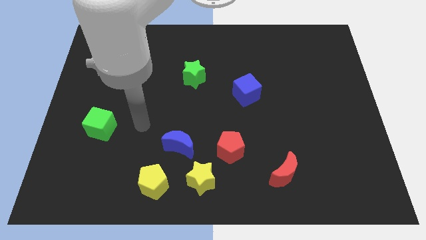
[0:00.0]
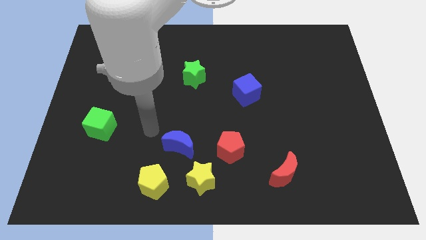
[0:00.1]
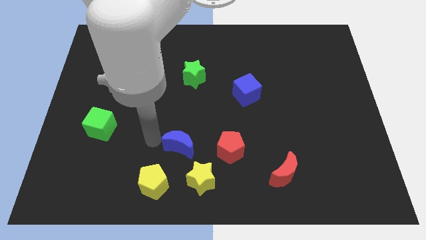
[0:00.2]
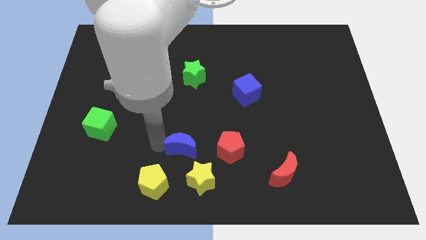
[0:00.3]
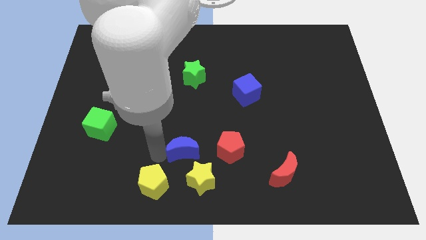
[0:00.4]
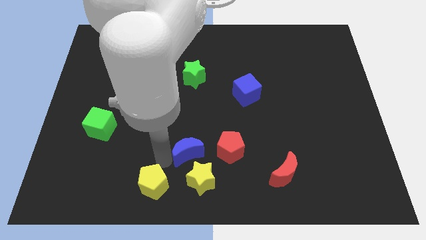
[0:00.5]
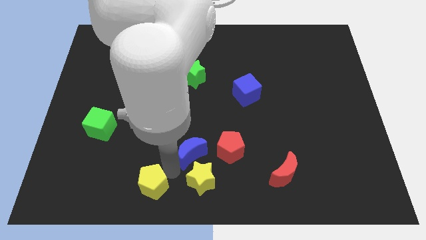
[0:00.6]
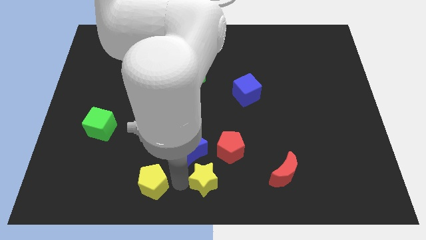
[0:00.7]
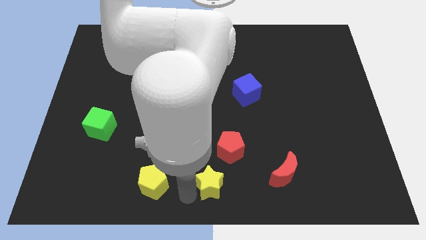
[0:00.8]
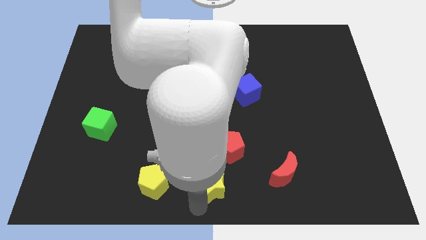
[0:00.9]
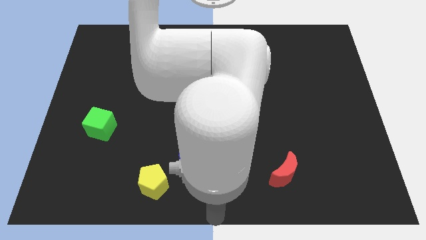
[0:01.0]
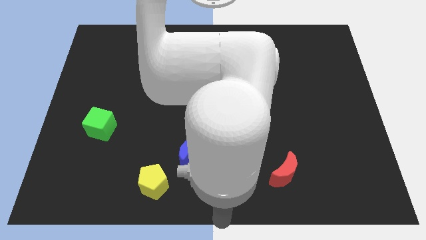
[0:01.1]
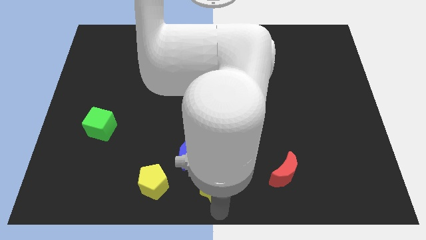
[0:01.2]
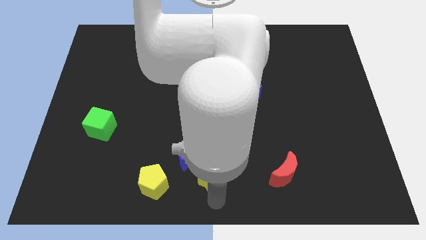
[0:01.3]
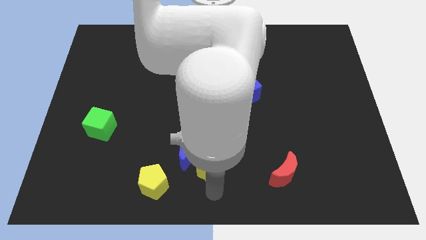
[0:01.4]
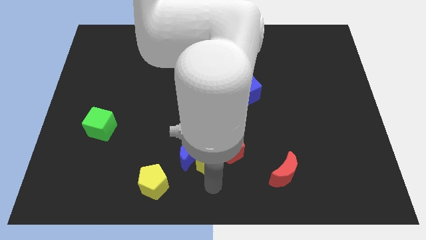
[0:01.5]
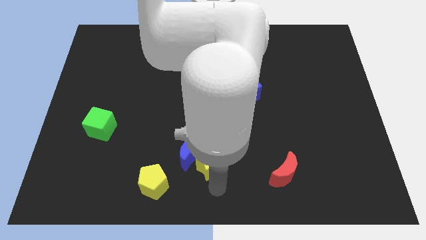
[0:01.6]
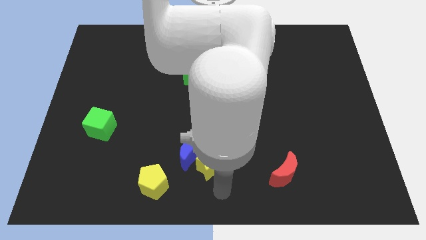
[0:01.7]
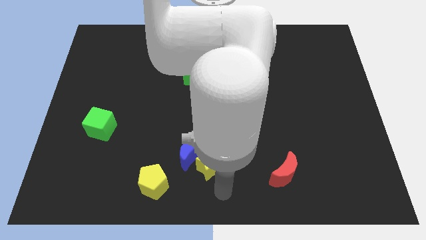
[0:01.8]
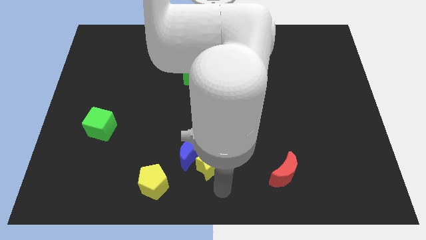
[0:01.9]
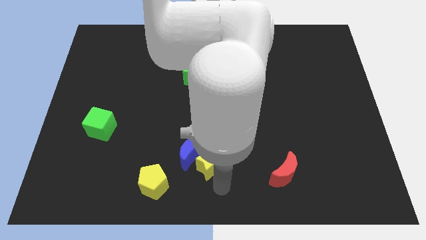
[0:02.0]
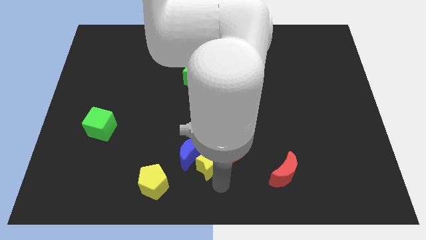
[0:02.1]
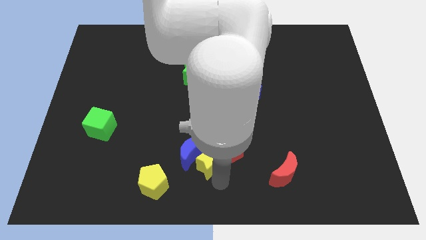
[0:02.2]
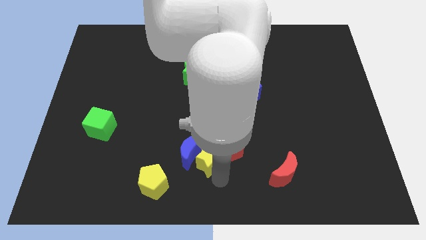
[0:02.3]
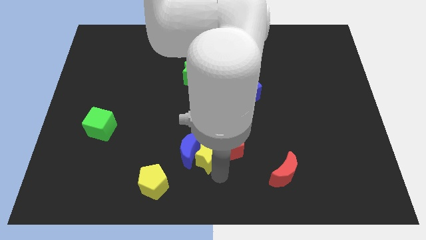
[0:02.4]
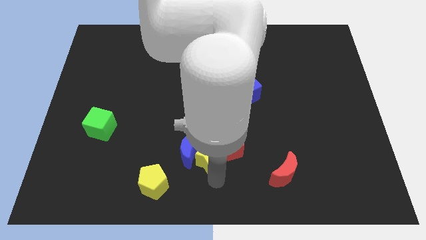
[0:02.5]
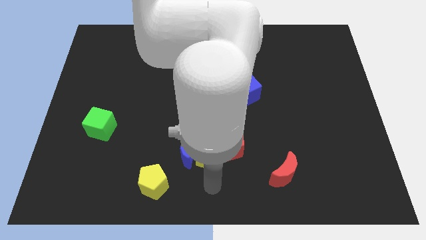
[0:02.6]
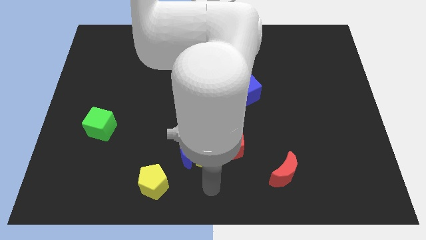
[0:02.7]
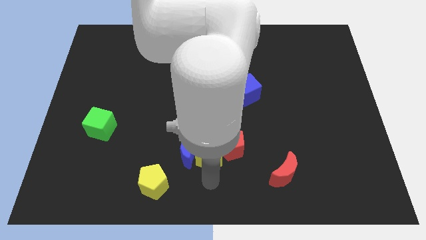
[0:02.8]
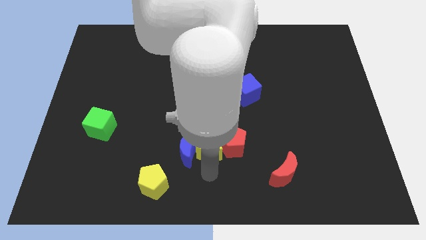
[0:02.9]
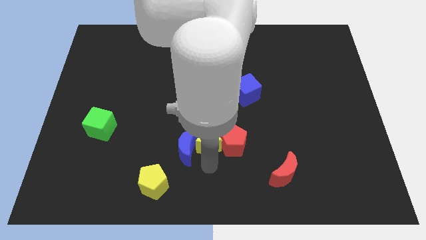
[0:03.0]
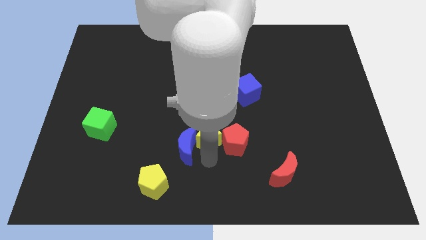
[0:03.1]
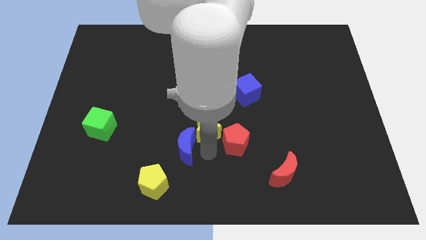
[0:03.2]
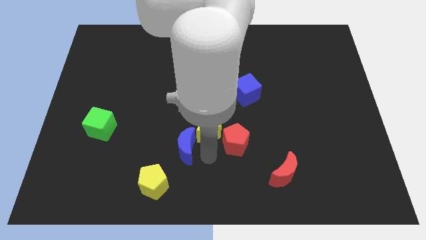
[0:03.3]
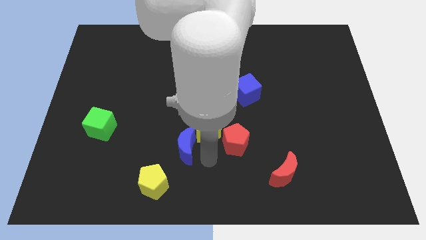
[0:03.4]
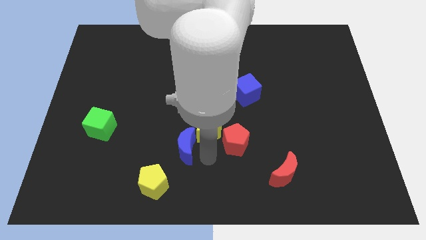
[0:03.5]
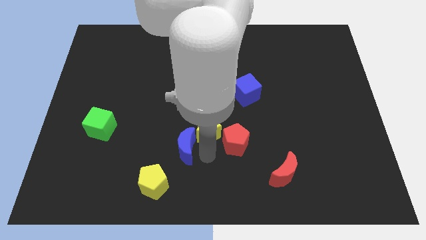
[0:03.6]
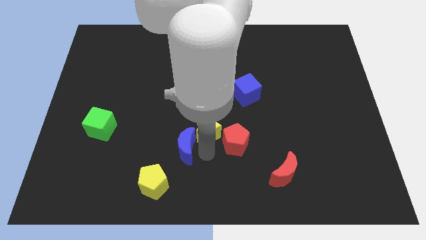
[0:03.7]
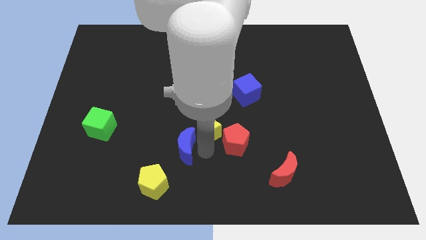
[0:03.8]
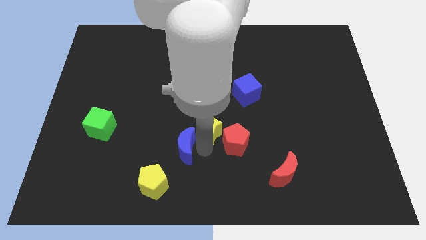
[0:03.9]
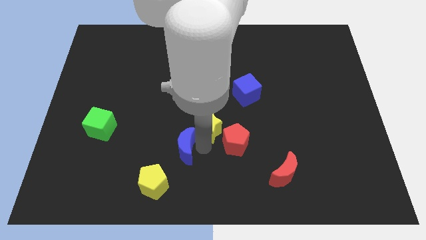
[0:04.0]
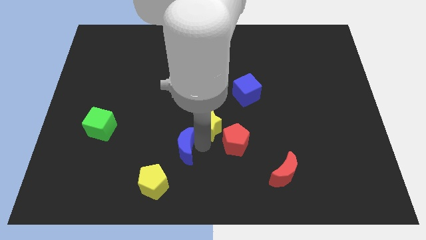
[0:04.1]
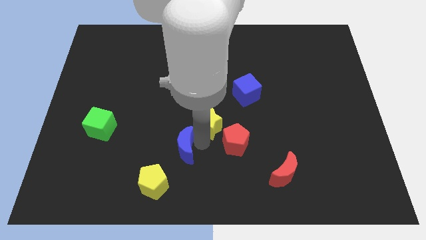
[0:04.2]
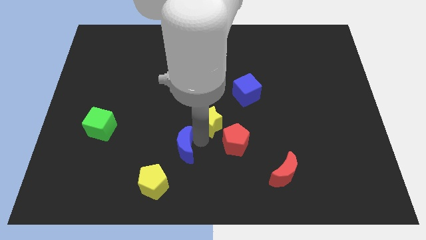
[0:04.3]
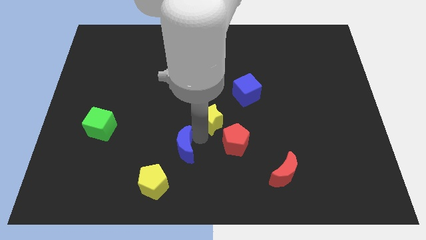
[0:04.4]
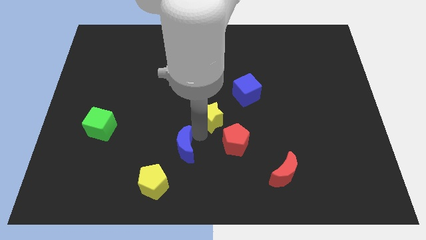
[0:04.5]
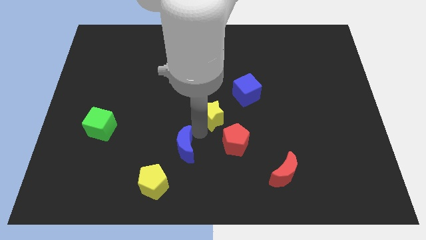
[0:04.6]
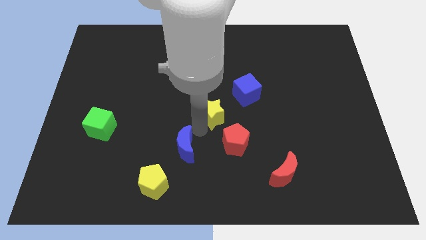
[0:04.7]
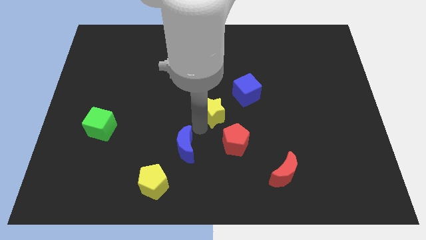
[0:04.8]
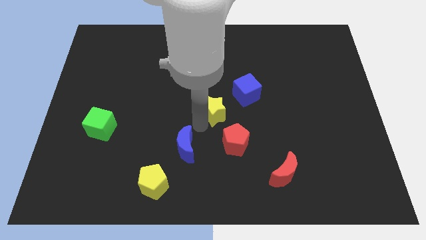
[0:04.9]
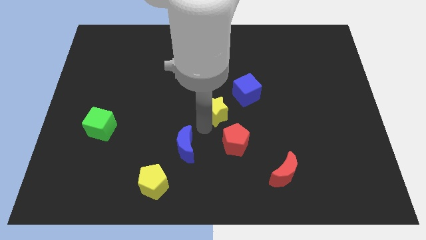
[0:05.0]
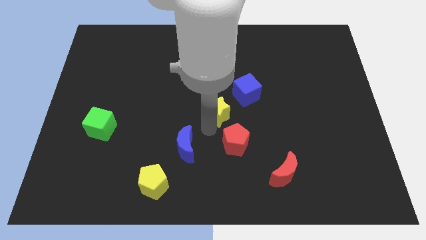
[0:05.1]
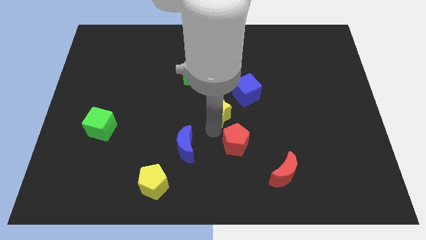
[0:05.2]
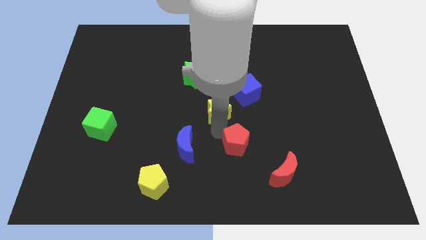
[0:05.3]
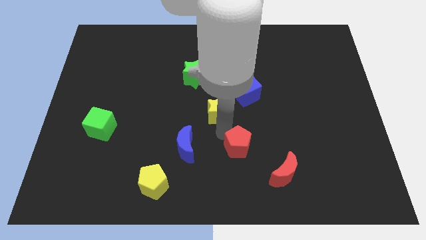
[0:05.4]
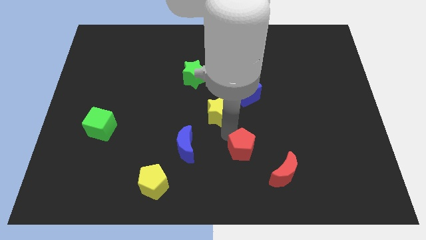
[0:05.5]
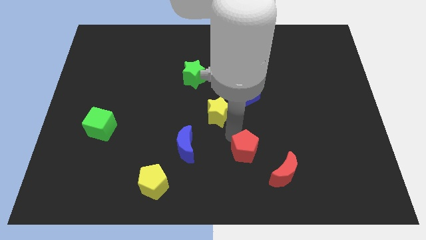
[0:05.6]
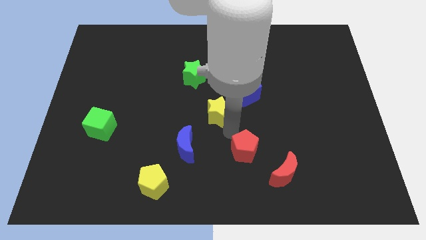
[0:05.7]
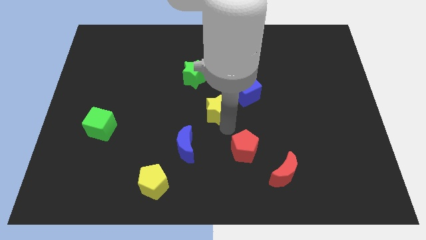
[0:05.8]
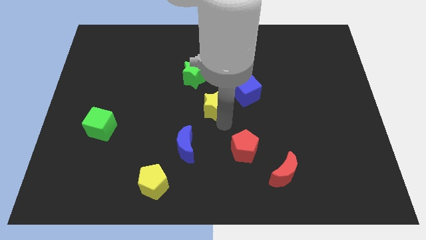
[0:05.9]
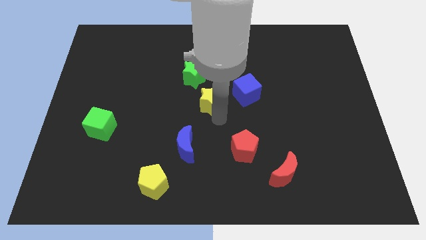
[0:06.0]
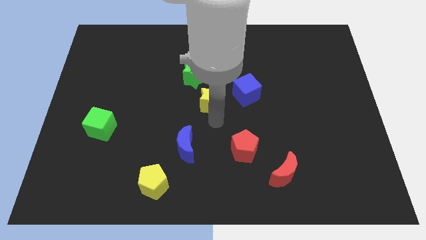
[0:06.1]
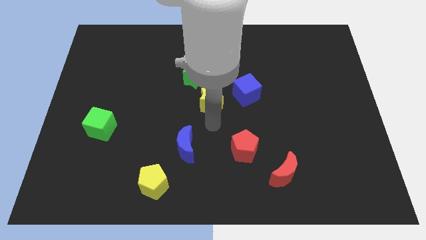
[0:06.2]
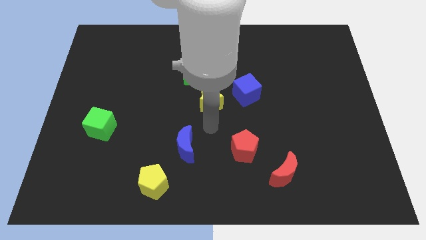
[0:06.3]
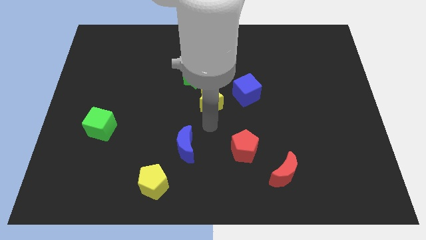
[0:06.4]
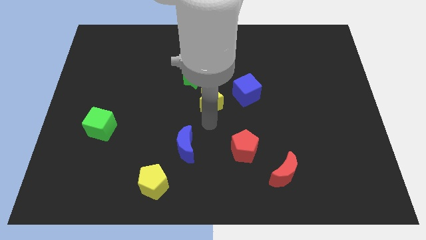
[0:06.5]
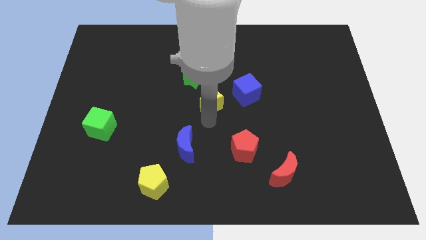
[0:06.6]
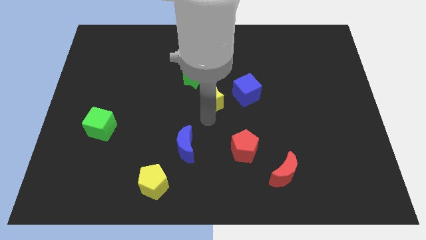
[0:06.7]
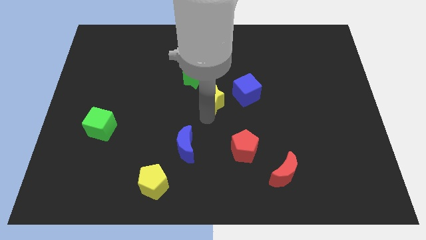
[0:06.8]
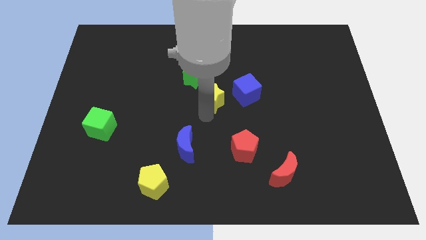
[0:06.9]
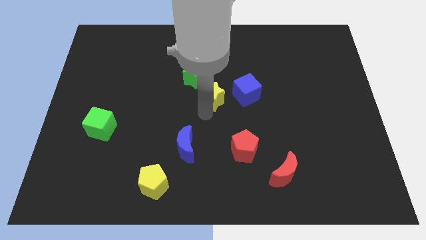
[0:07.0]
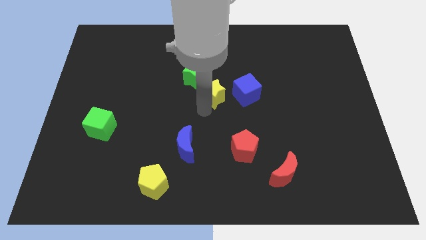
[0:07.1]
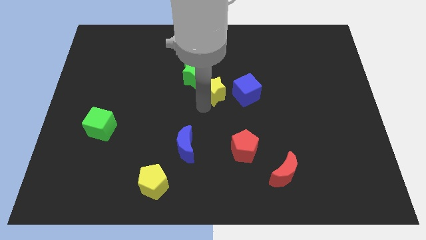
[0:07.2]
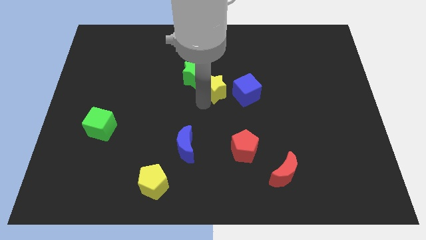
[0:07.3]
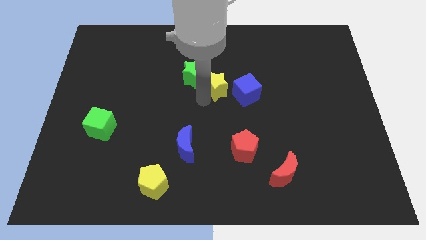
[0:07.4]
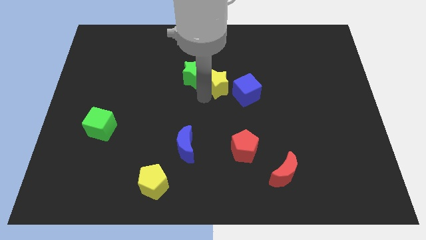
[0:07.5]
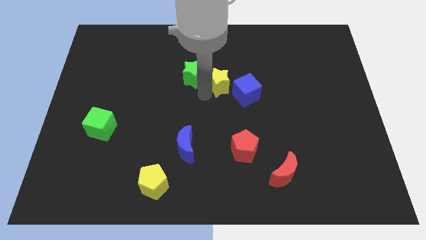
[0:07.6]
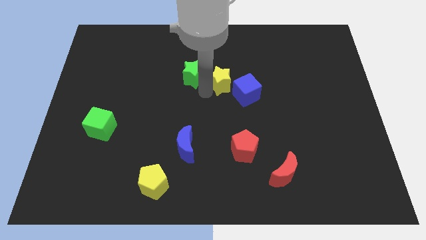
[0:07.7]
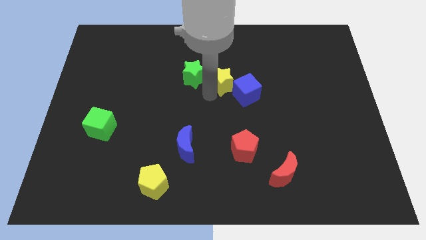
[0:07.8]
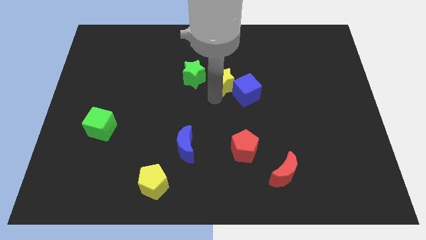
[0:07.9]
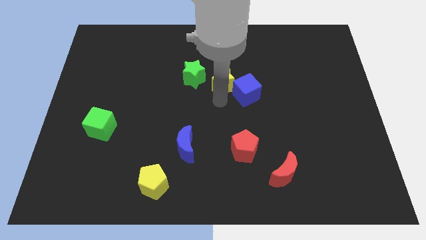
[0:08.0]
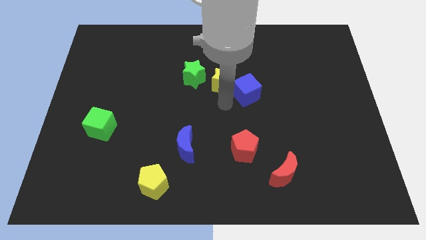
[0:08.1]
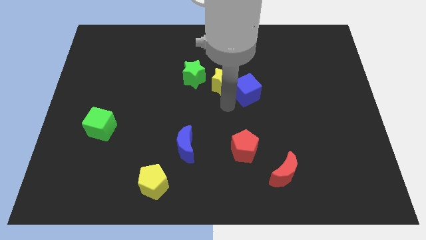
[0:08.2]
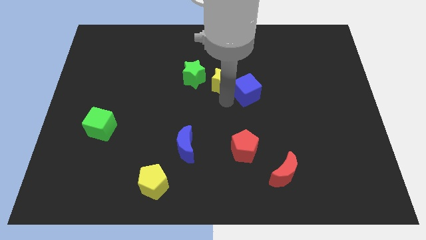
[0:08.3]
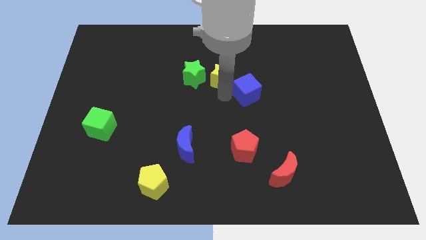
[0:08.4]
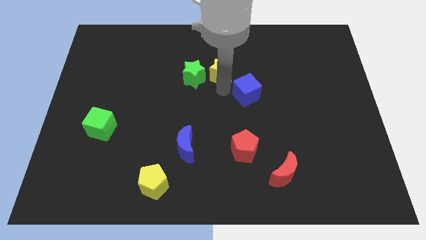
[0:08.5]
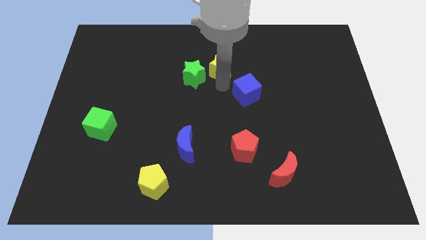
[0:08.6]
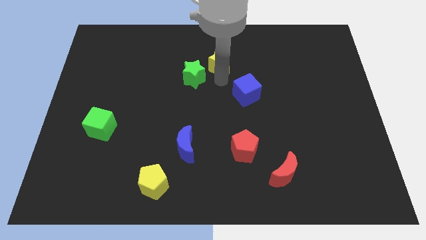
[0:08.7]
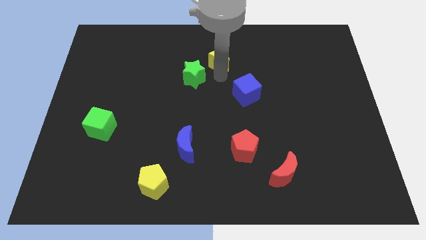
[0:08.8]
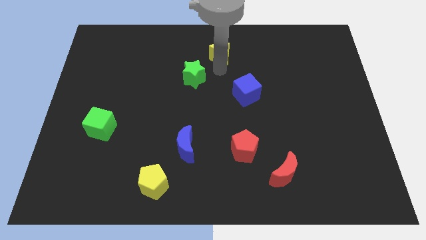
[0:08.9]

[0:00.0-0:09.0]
put the yellow star to the top side
